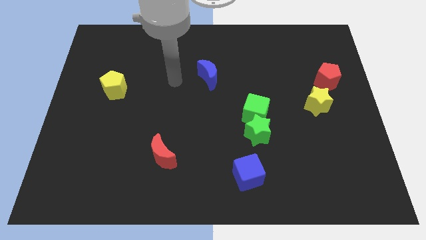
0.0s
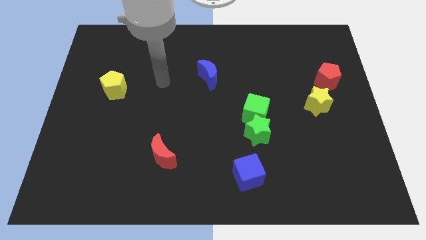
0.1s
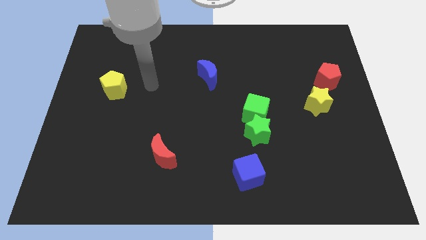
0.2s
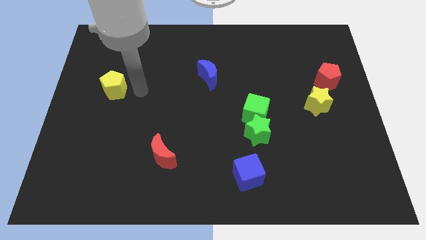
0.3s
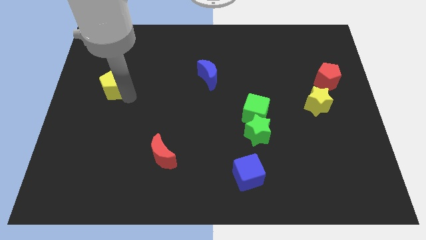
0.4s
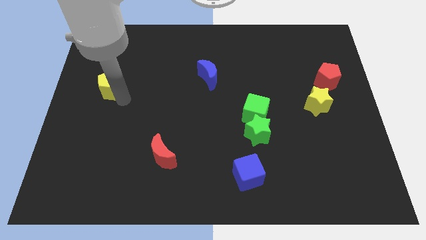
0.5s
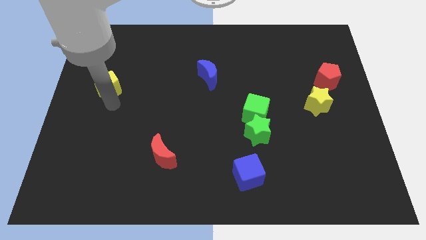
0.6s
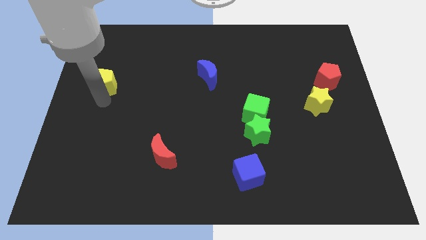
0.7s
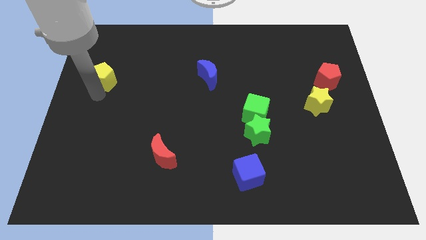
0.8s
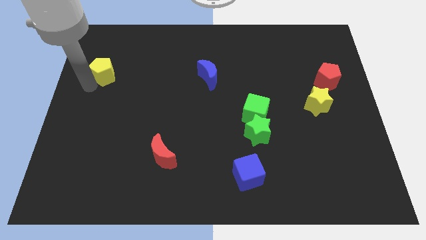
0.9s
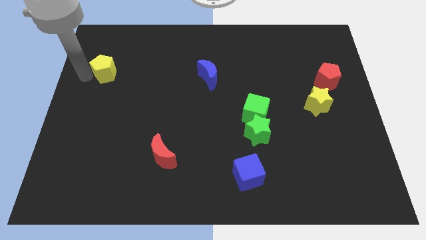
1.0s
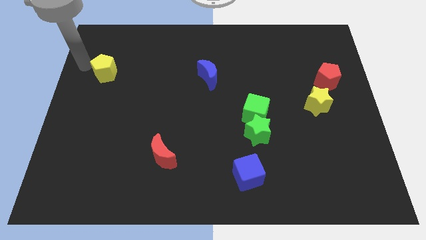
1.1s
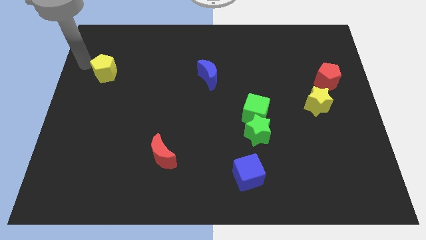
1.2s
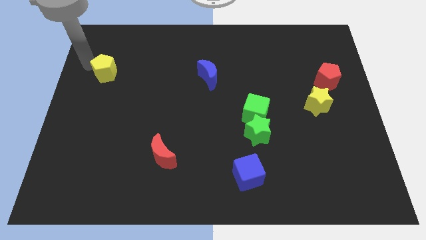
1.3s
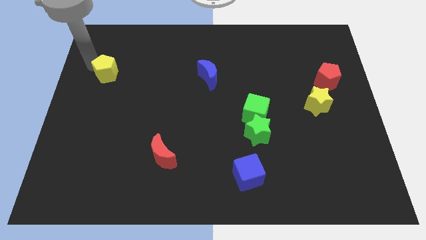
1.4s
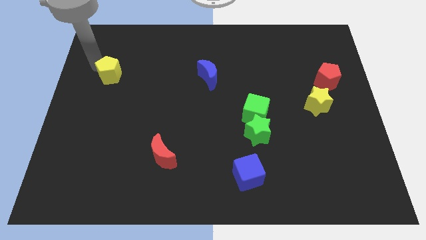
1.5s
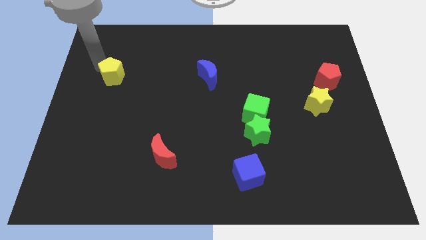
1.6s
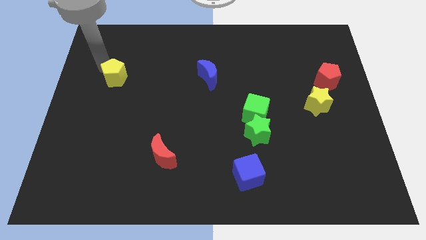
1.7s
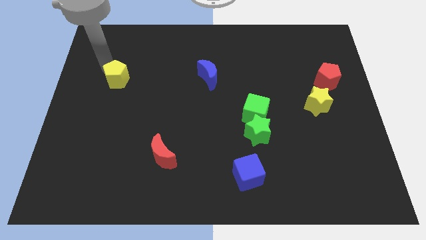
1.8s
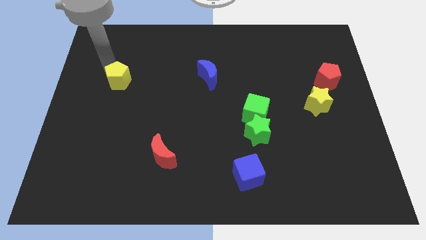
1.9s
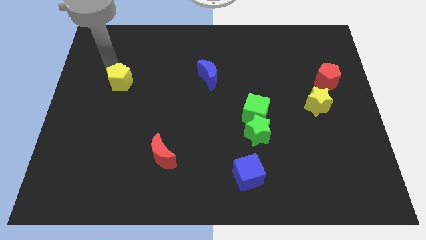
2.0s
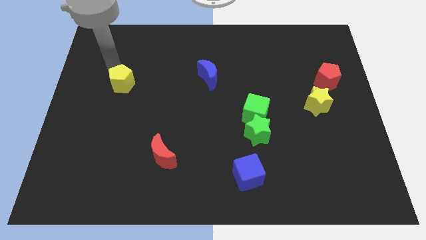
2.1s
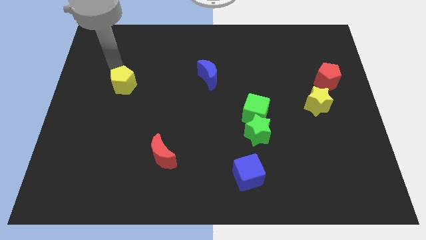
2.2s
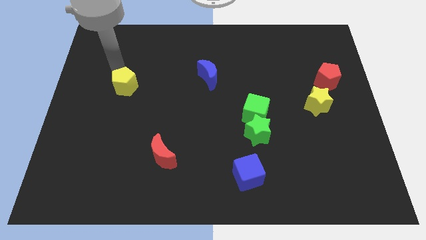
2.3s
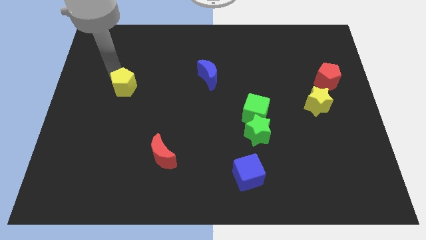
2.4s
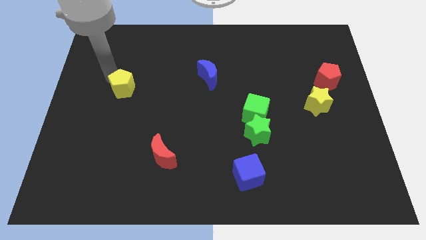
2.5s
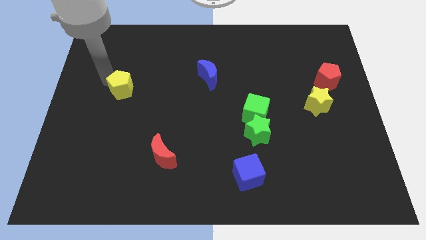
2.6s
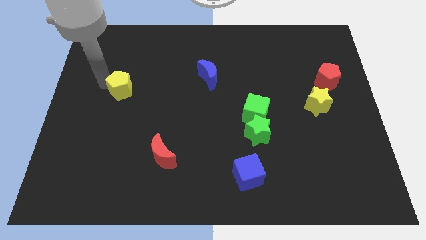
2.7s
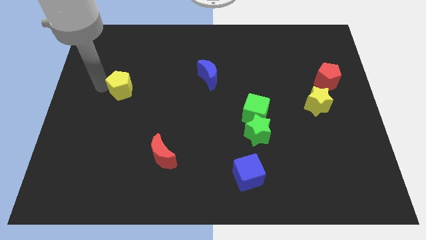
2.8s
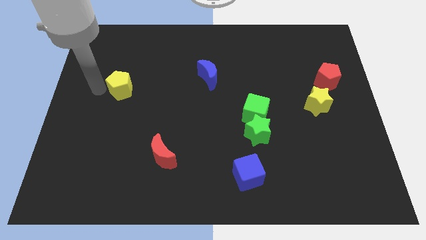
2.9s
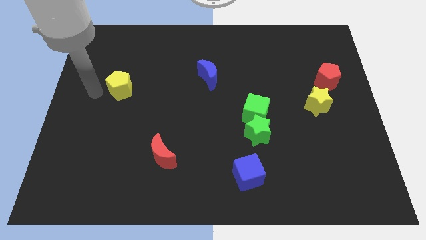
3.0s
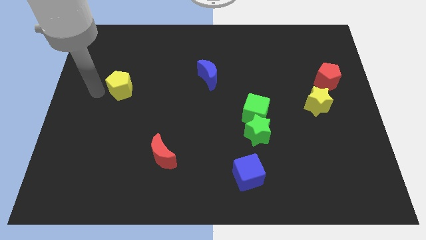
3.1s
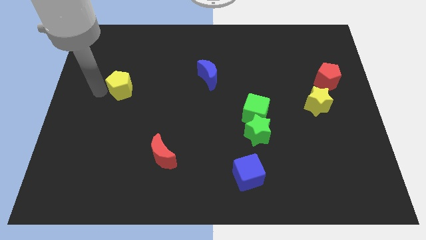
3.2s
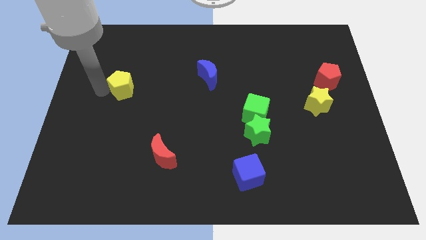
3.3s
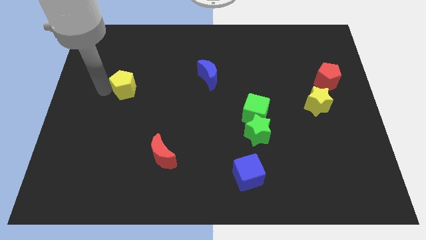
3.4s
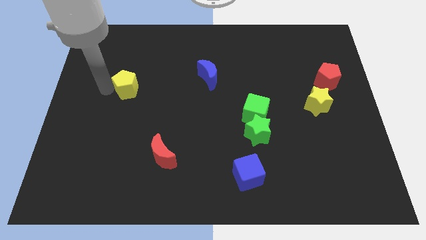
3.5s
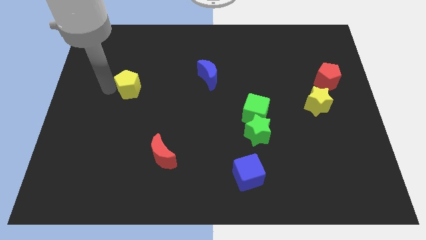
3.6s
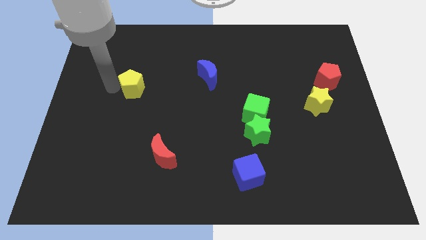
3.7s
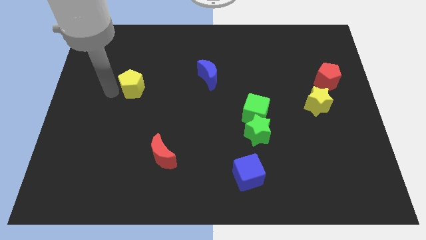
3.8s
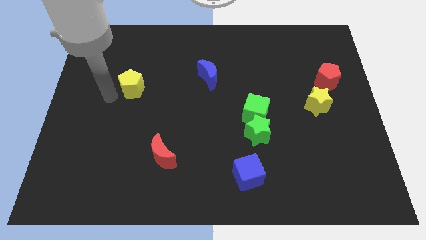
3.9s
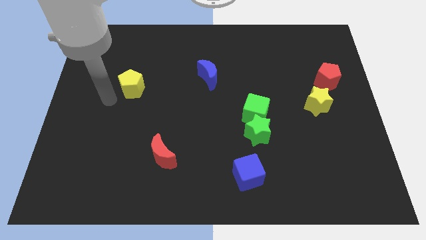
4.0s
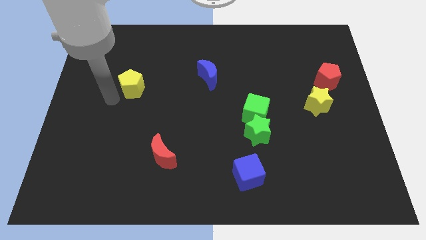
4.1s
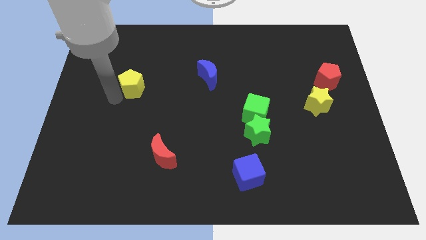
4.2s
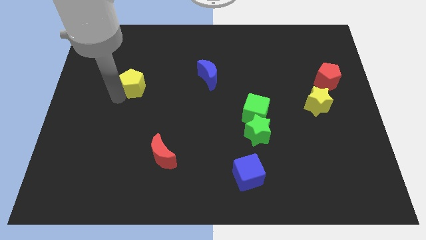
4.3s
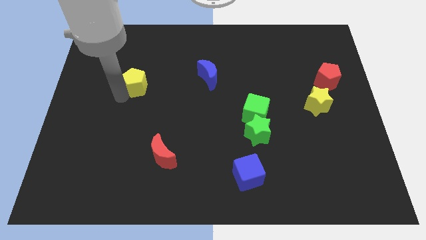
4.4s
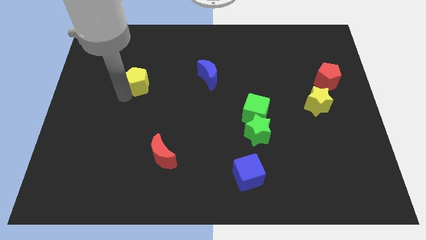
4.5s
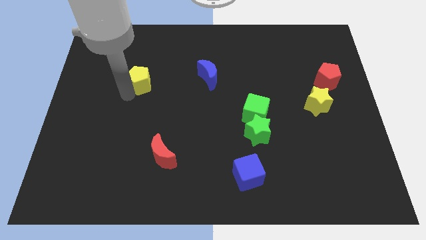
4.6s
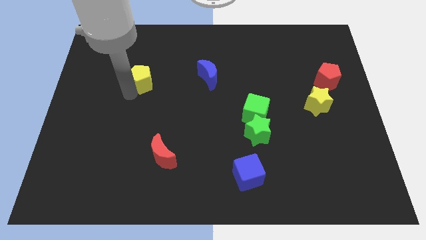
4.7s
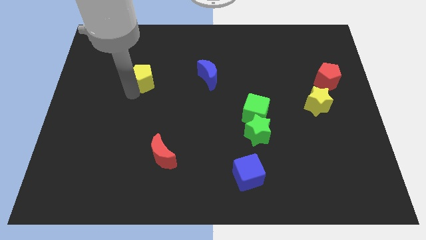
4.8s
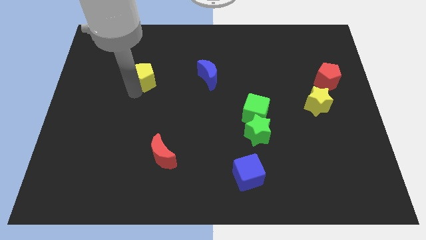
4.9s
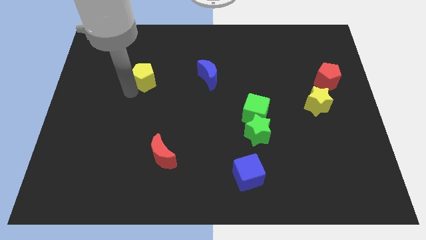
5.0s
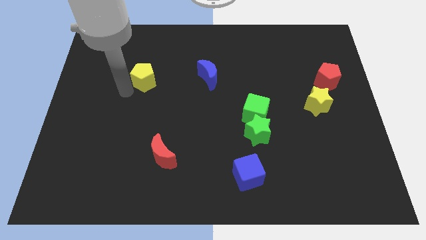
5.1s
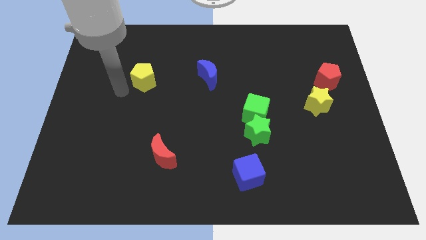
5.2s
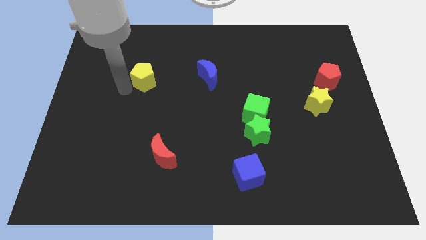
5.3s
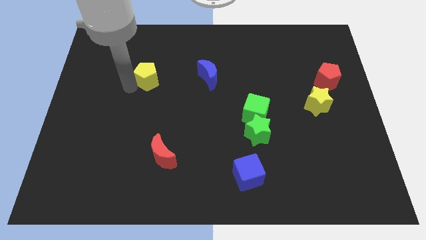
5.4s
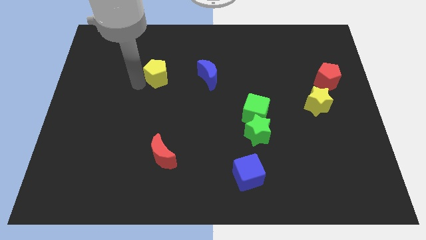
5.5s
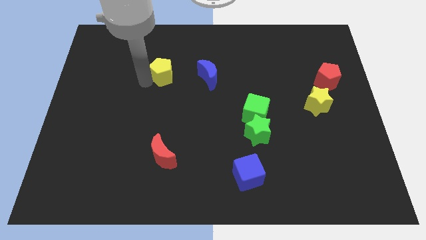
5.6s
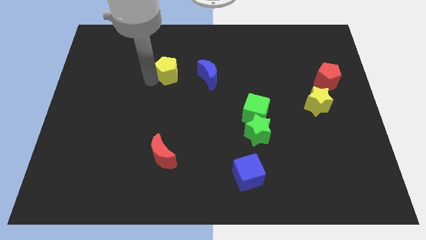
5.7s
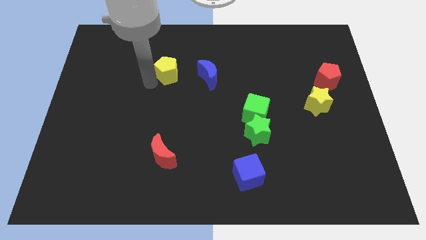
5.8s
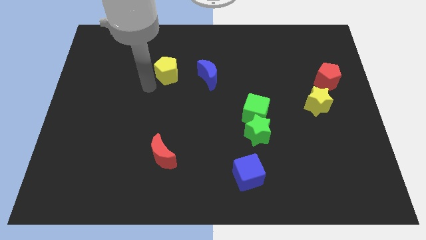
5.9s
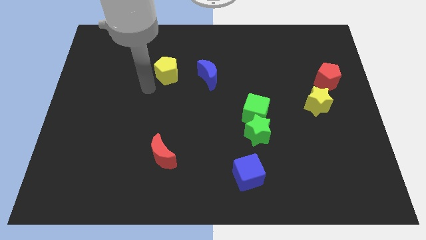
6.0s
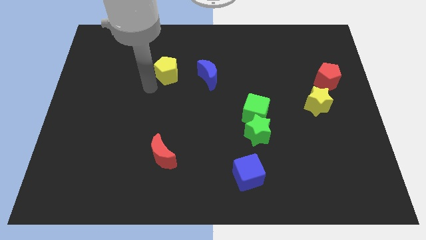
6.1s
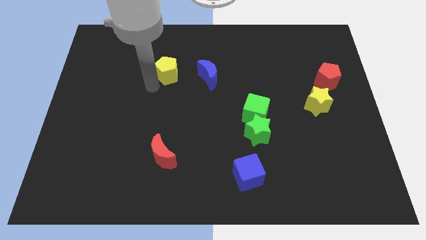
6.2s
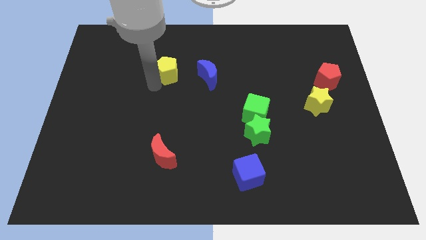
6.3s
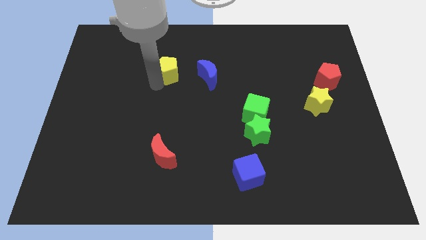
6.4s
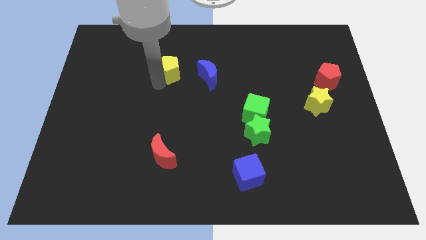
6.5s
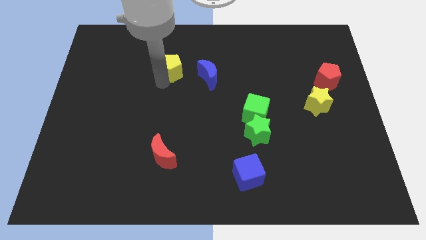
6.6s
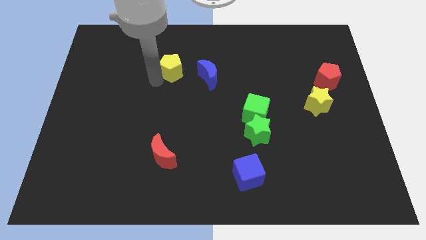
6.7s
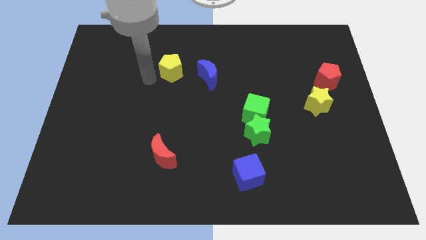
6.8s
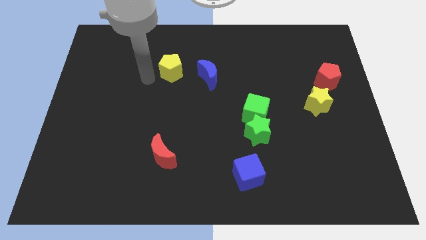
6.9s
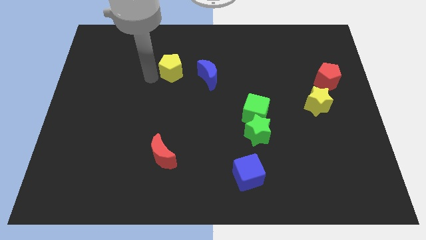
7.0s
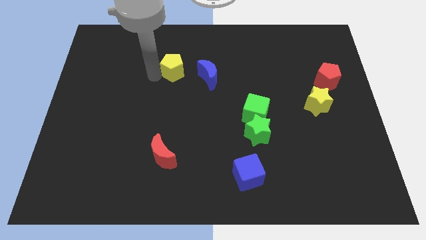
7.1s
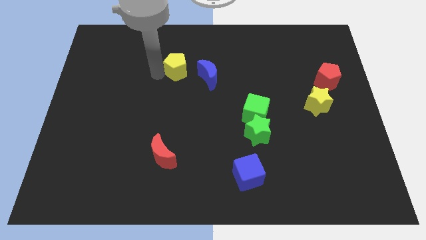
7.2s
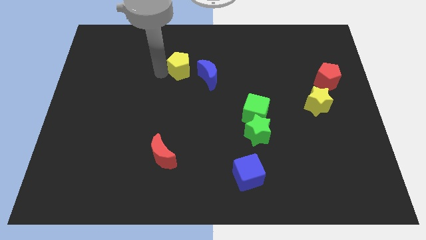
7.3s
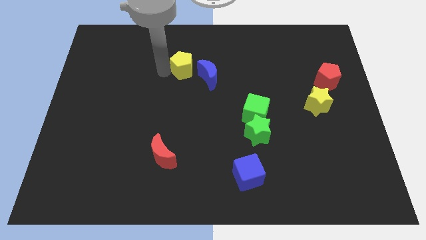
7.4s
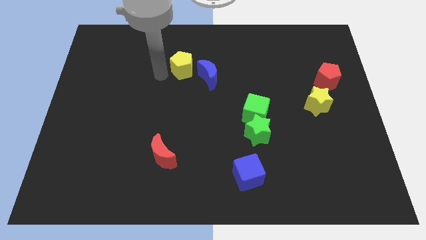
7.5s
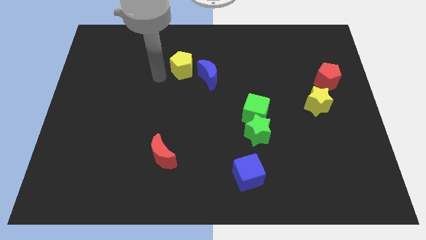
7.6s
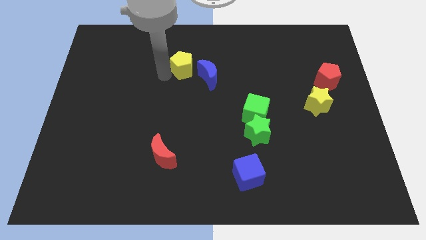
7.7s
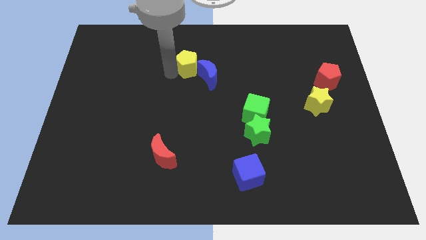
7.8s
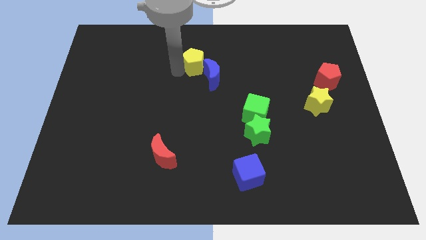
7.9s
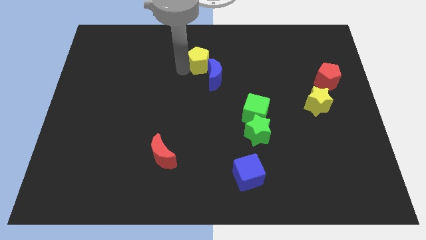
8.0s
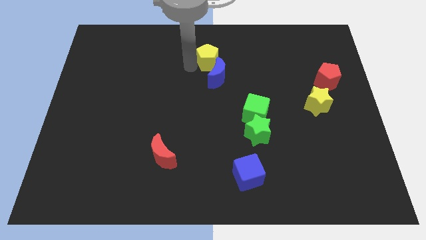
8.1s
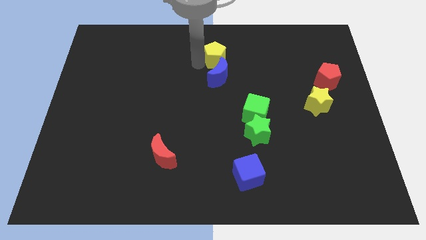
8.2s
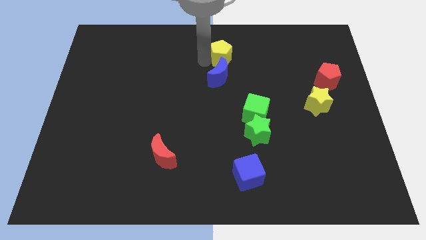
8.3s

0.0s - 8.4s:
push the yellow pentagon to the top right of the blue moon
